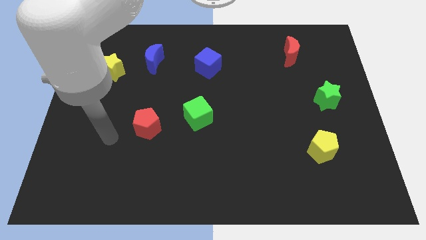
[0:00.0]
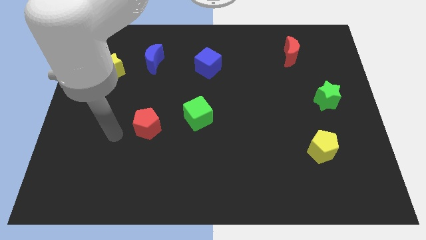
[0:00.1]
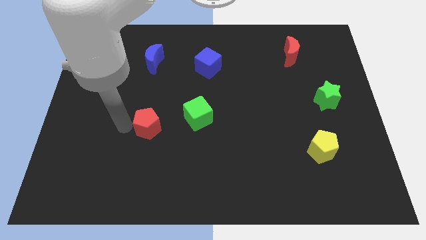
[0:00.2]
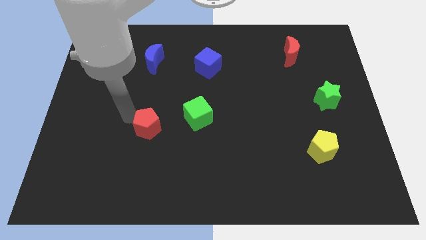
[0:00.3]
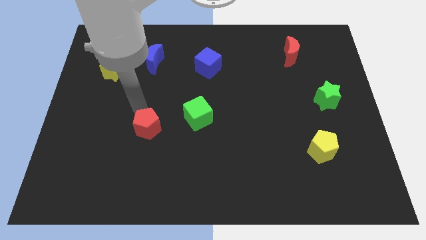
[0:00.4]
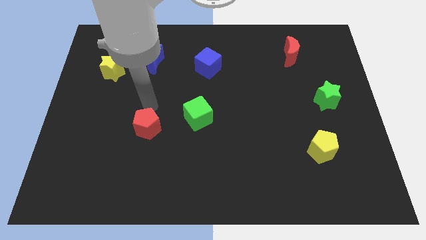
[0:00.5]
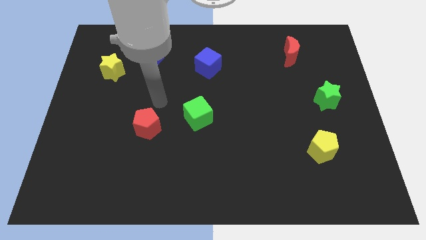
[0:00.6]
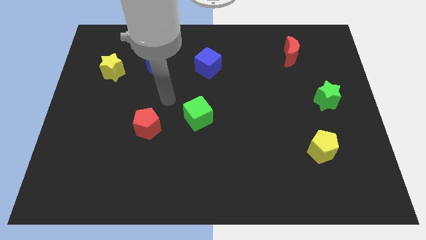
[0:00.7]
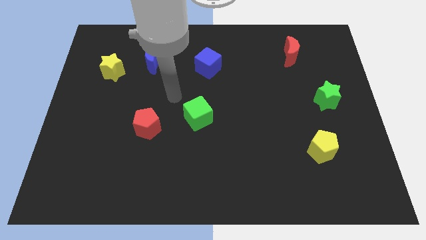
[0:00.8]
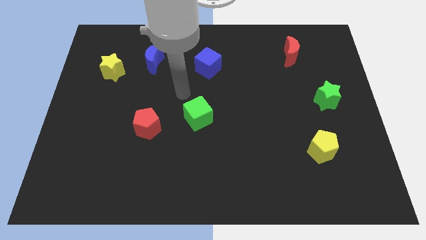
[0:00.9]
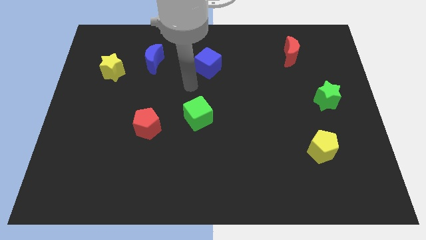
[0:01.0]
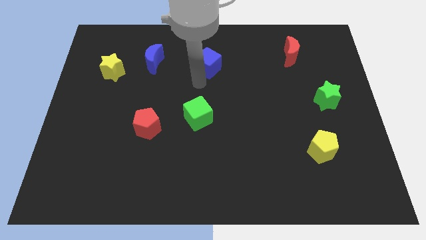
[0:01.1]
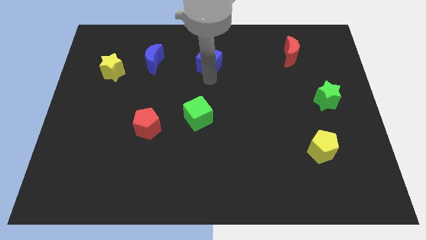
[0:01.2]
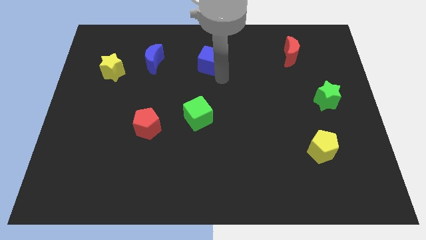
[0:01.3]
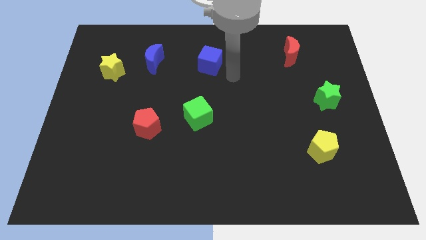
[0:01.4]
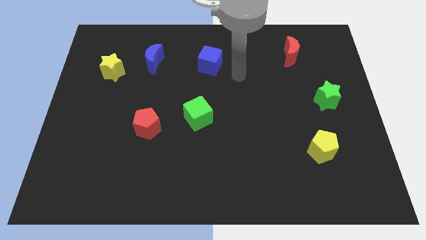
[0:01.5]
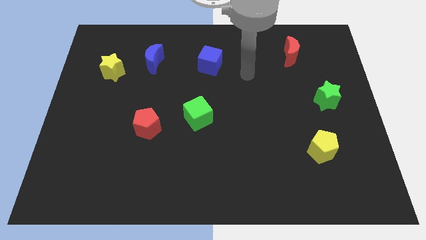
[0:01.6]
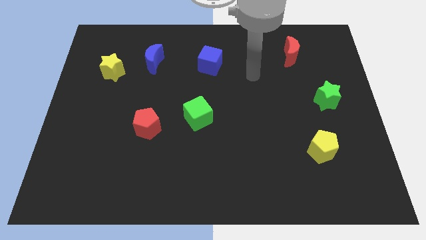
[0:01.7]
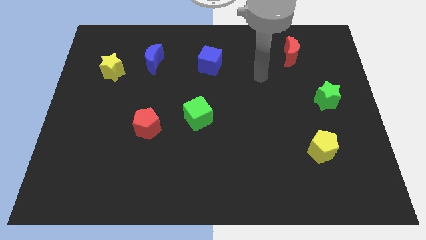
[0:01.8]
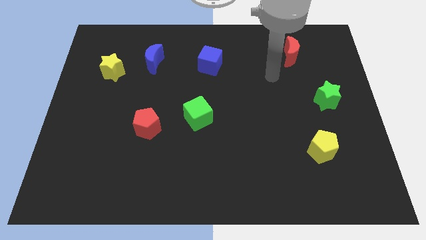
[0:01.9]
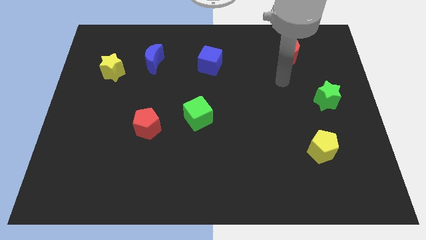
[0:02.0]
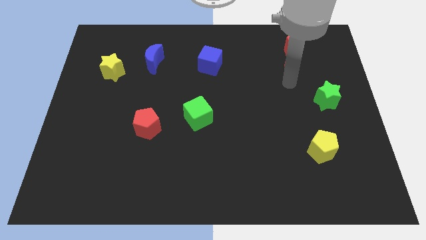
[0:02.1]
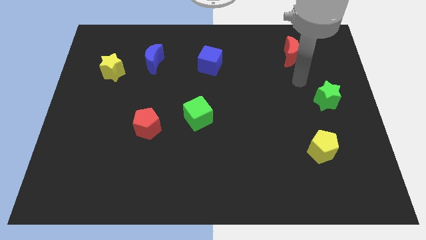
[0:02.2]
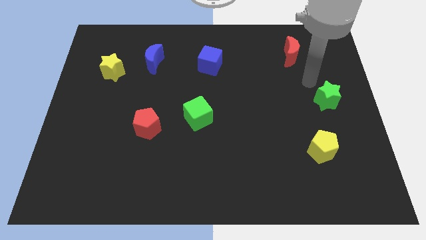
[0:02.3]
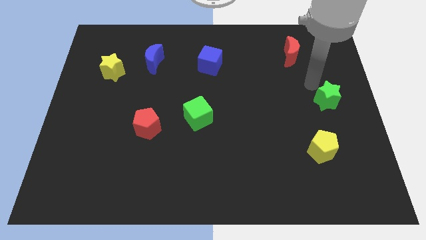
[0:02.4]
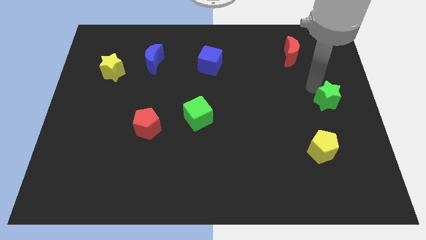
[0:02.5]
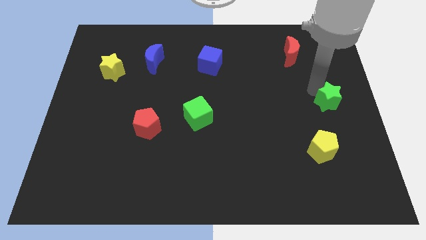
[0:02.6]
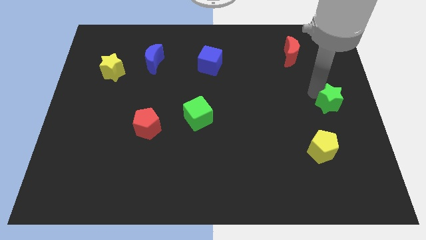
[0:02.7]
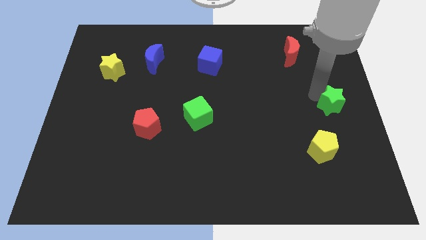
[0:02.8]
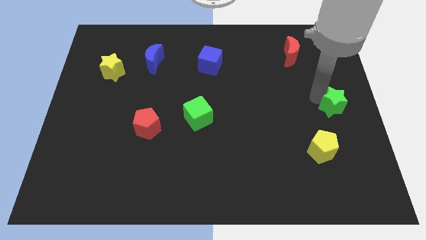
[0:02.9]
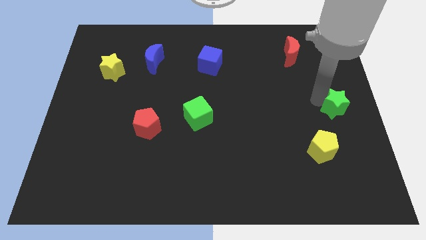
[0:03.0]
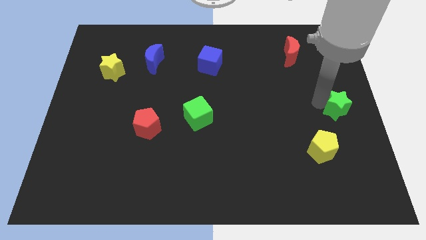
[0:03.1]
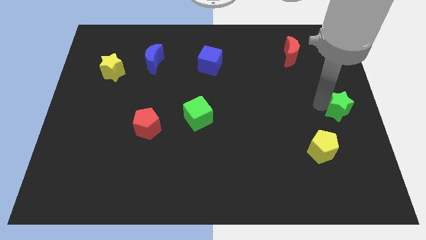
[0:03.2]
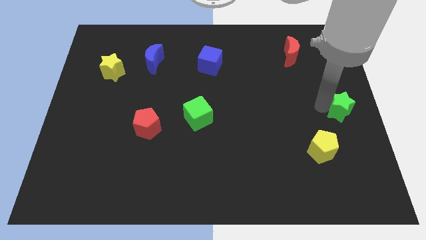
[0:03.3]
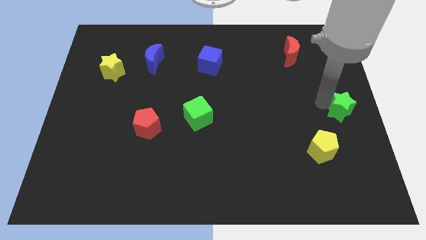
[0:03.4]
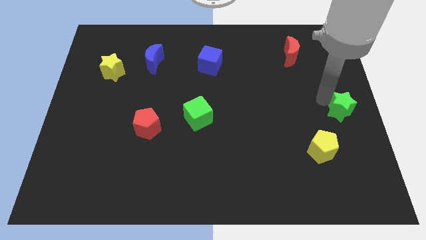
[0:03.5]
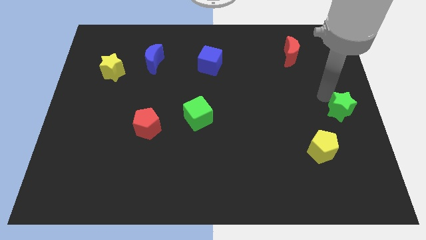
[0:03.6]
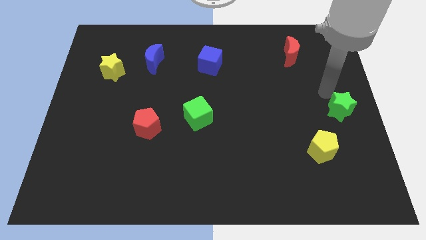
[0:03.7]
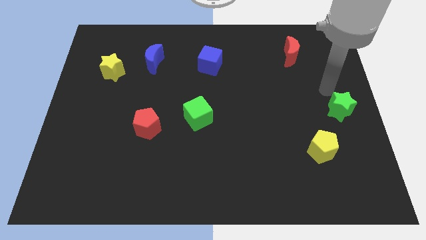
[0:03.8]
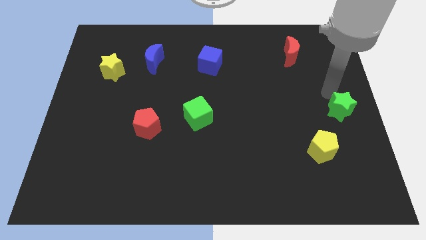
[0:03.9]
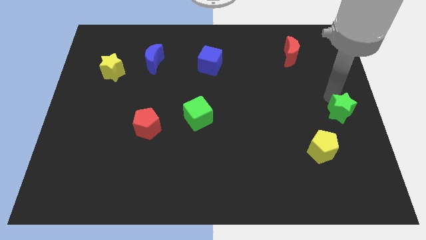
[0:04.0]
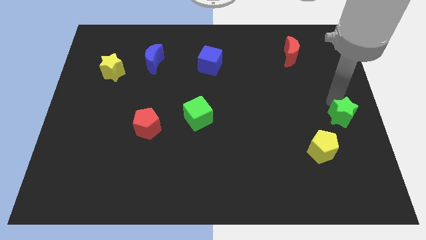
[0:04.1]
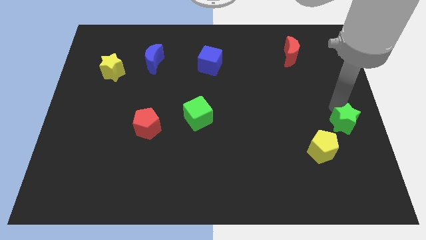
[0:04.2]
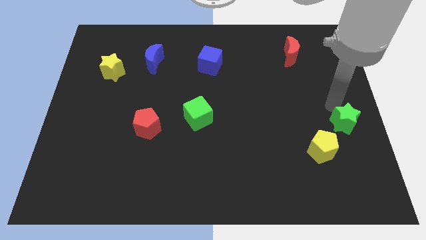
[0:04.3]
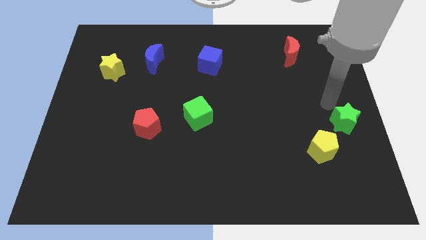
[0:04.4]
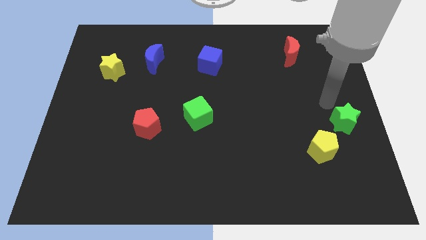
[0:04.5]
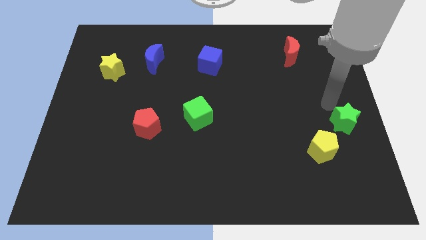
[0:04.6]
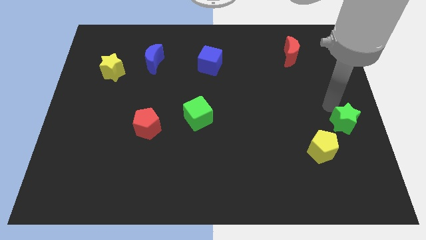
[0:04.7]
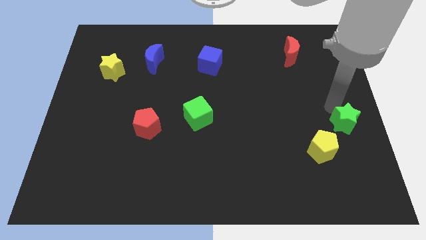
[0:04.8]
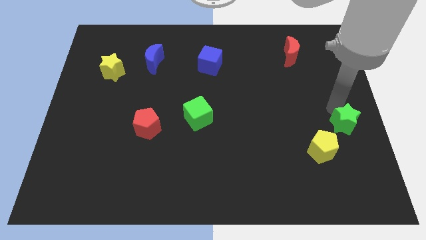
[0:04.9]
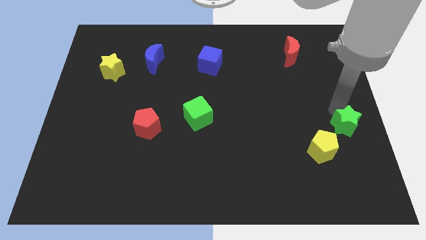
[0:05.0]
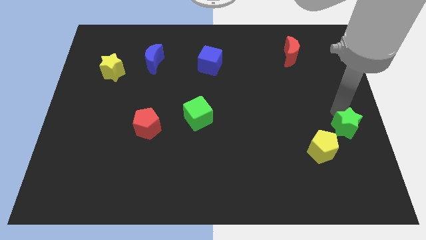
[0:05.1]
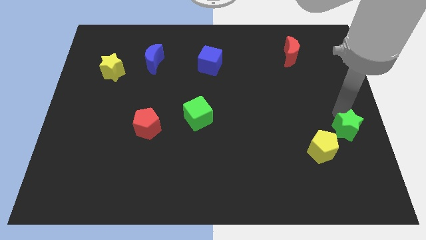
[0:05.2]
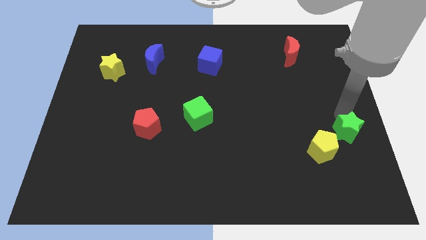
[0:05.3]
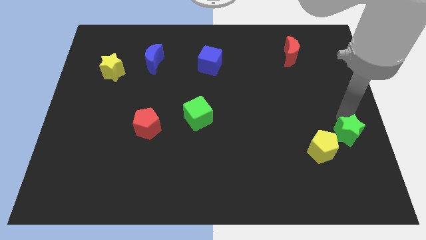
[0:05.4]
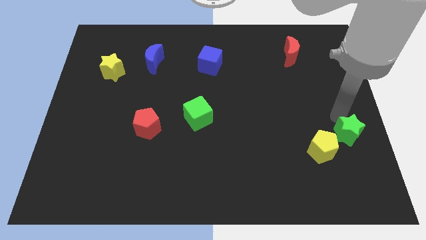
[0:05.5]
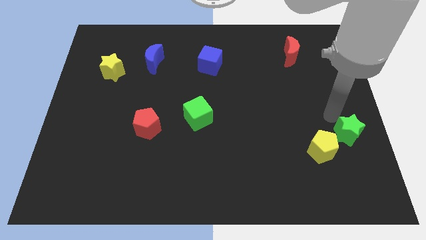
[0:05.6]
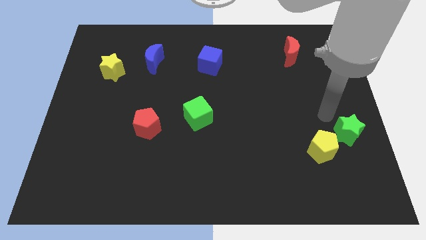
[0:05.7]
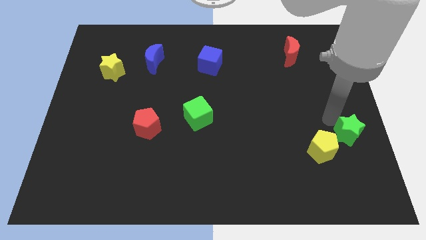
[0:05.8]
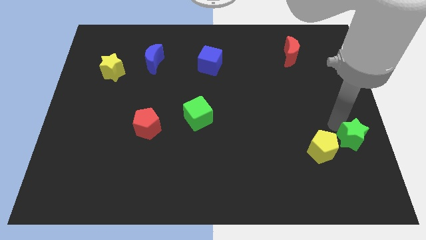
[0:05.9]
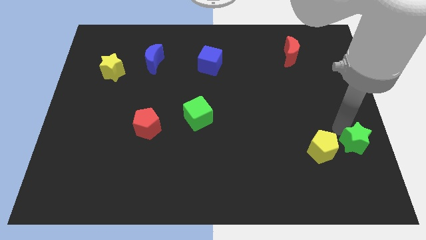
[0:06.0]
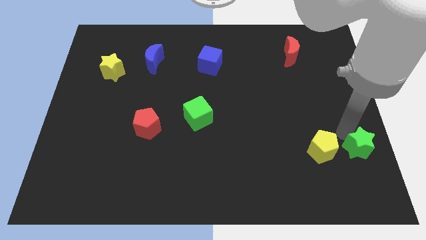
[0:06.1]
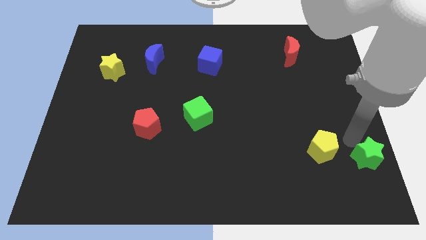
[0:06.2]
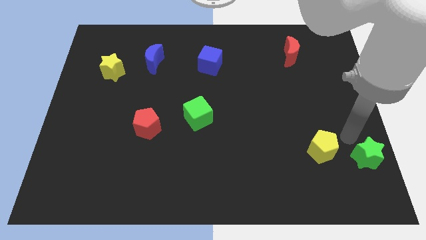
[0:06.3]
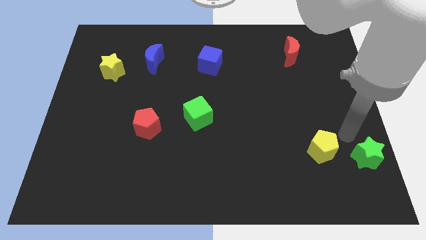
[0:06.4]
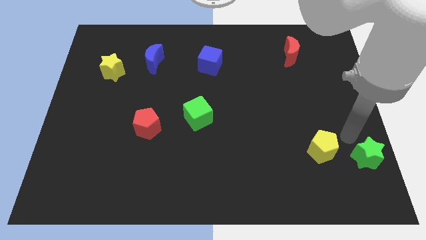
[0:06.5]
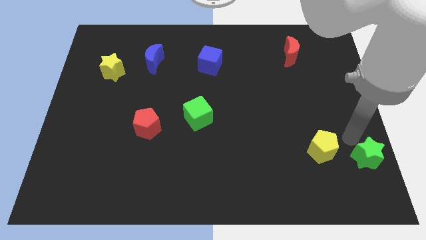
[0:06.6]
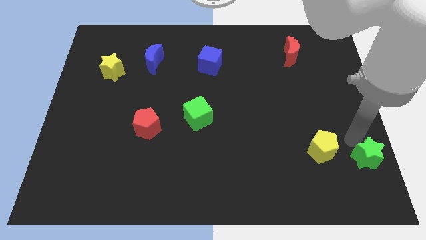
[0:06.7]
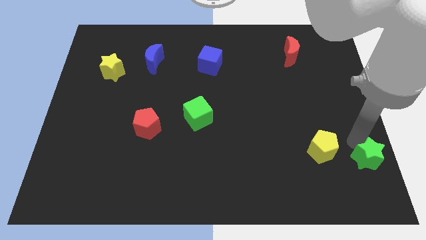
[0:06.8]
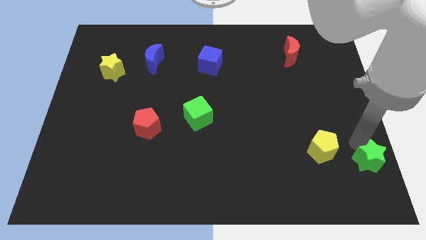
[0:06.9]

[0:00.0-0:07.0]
push the green star to the lower right corner
